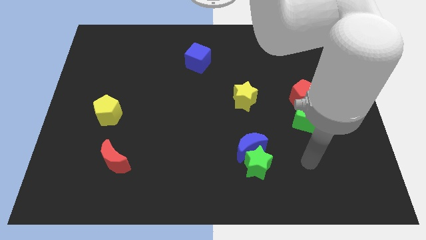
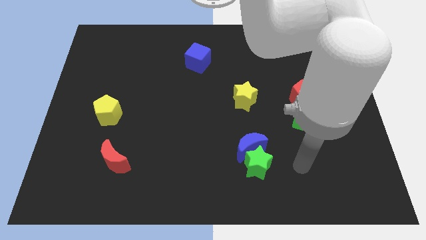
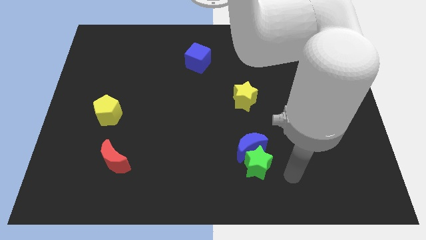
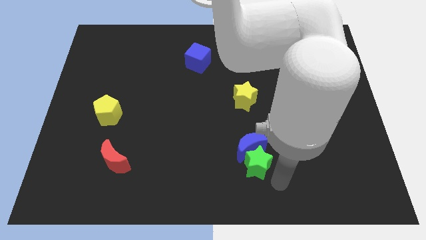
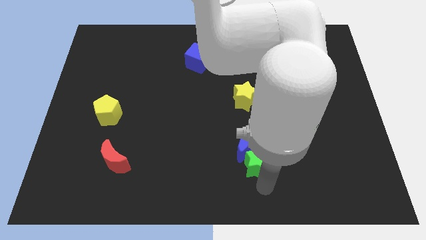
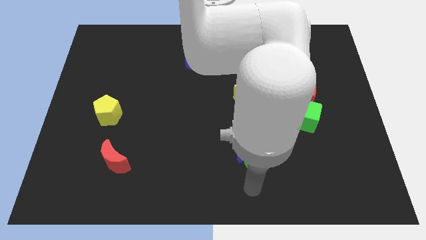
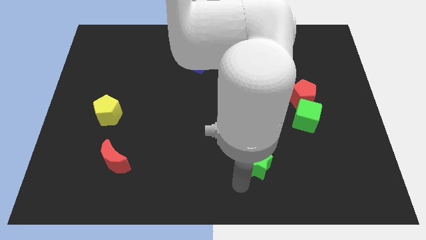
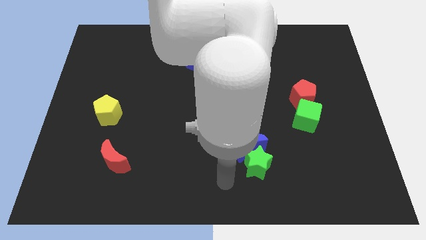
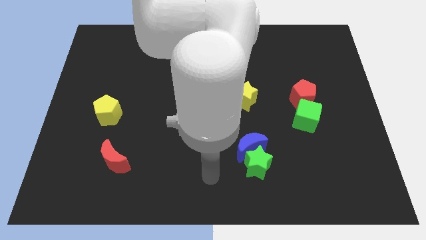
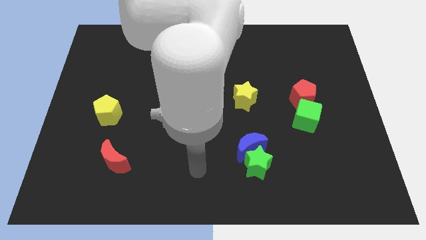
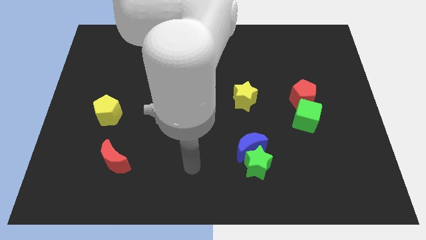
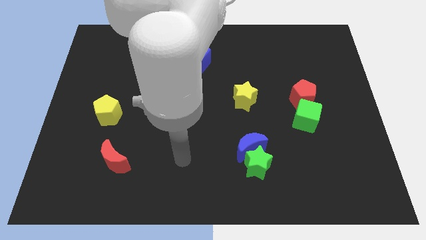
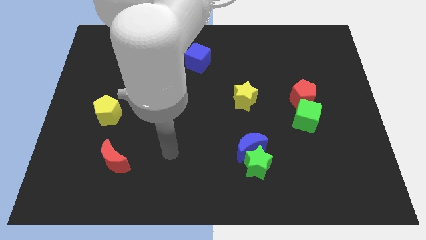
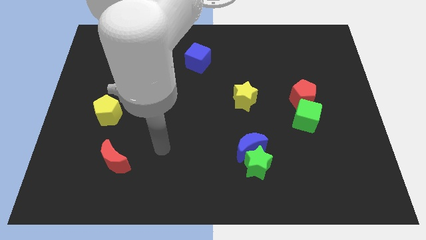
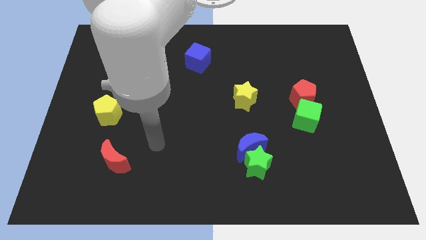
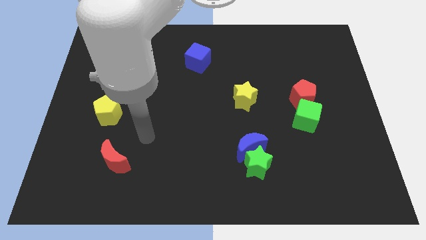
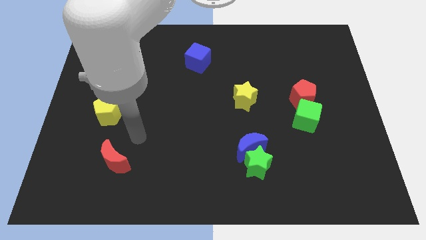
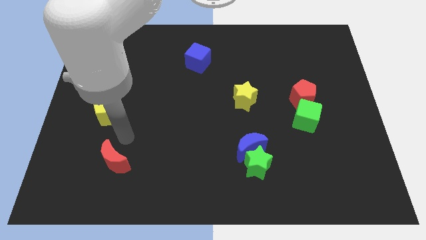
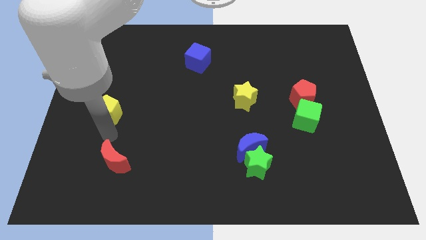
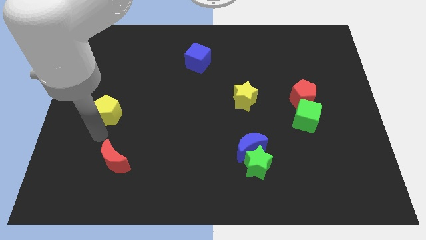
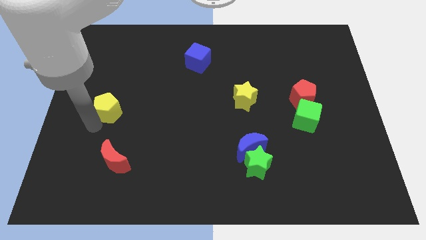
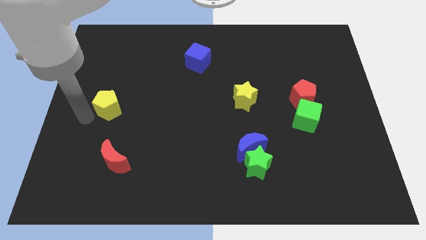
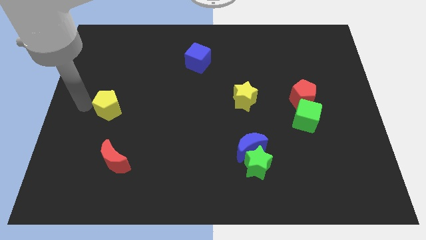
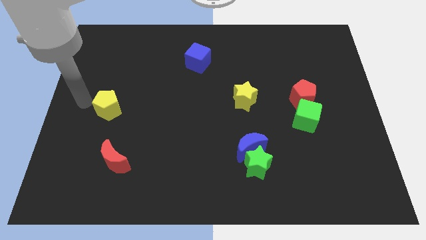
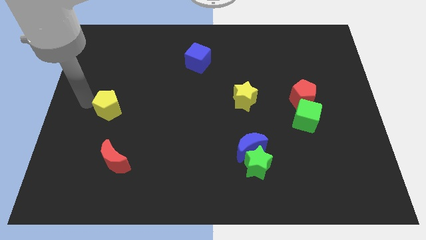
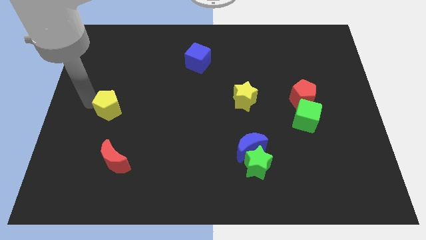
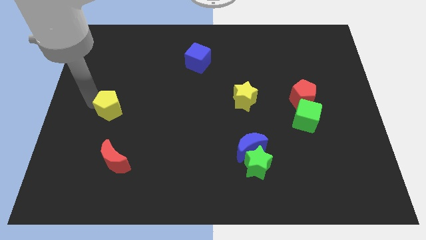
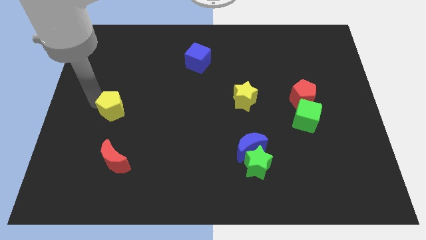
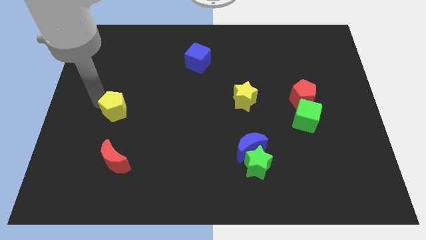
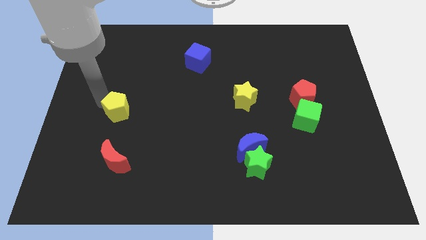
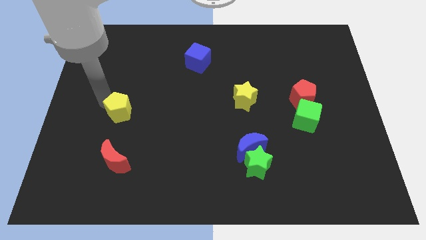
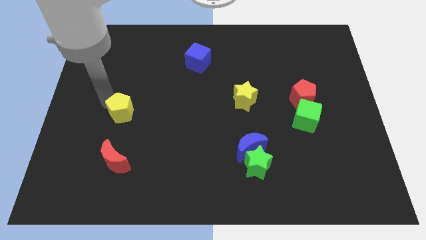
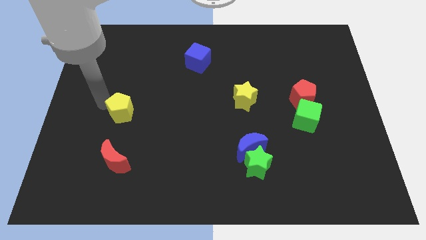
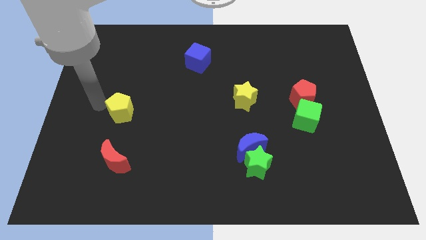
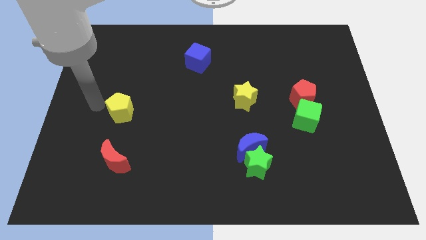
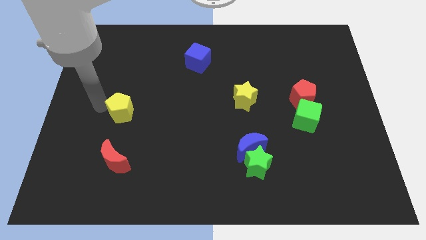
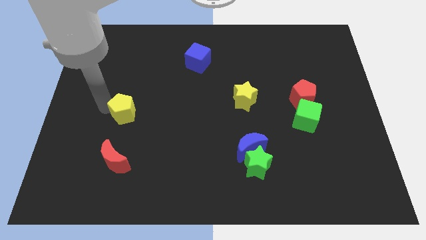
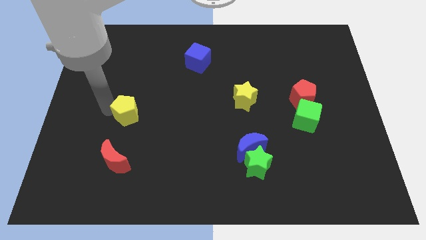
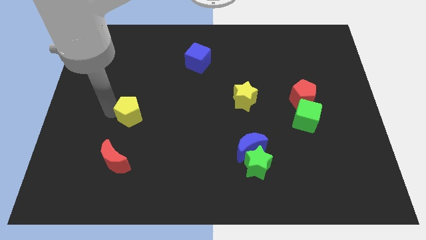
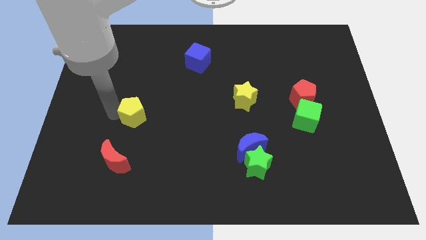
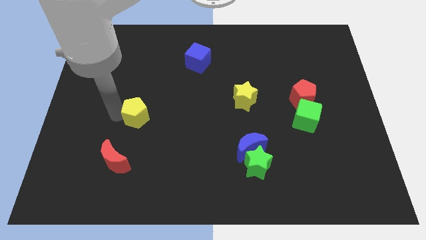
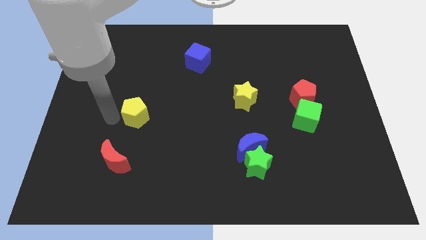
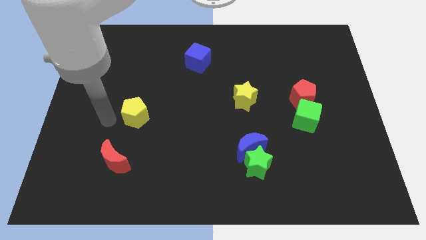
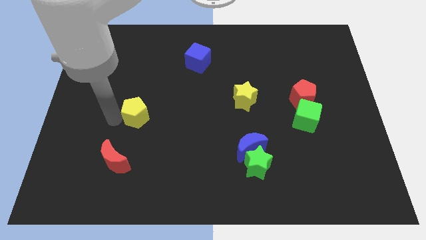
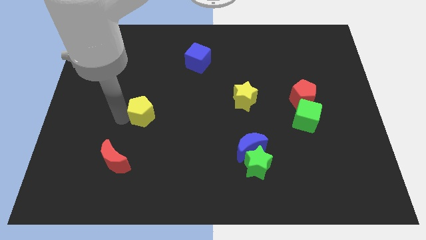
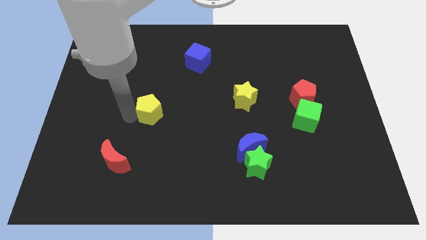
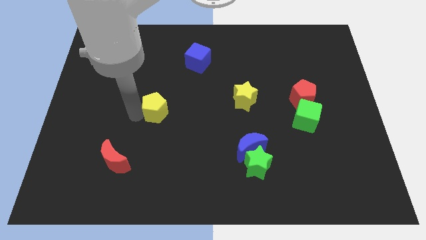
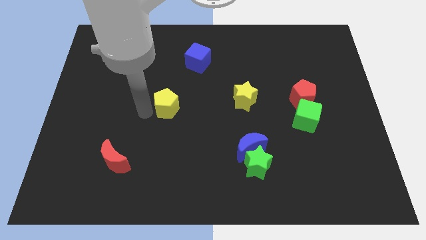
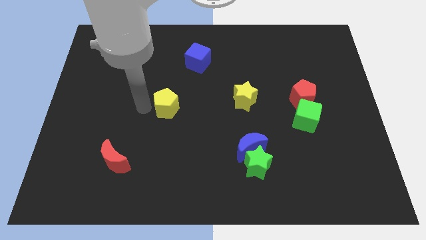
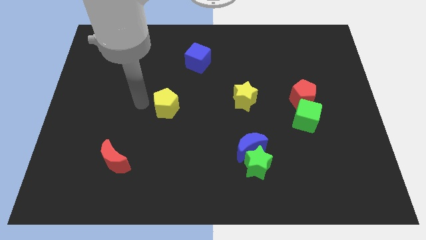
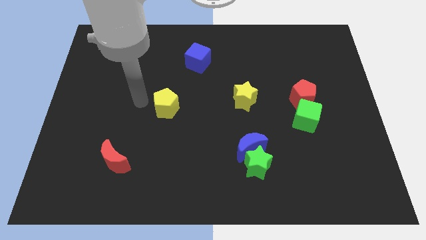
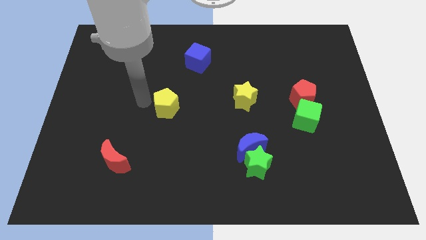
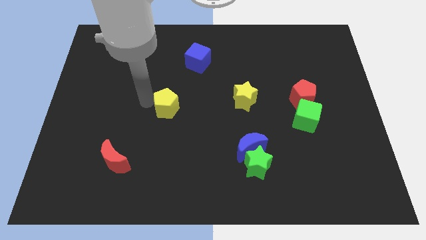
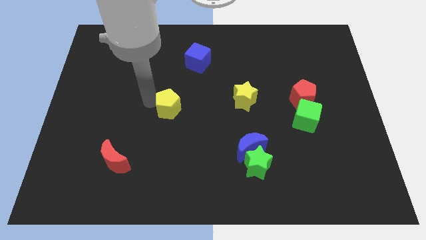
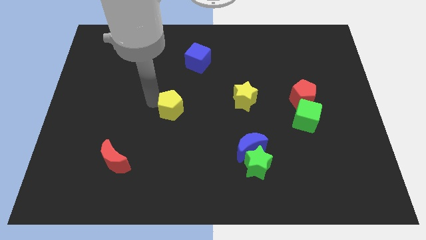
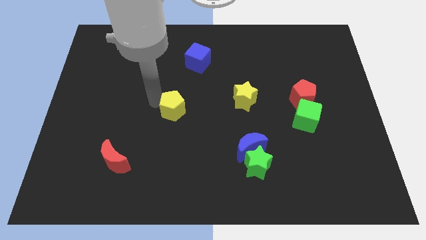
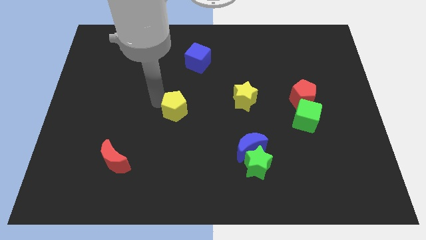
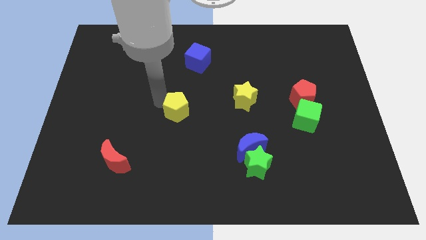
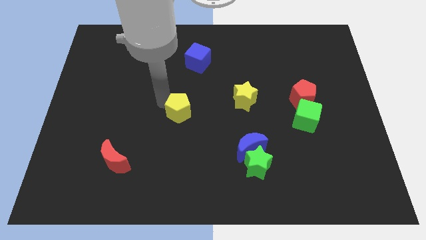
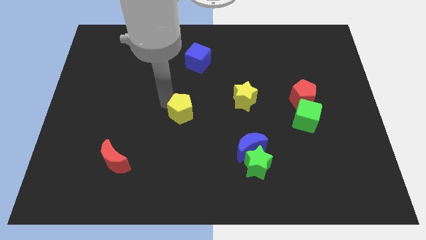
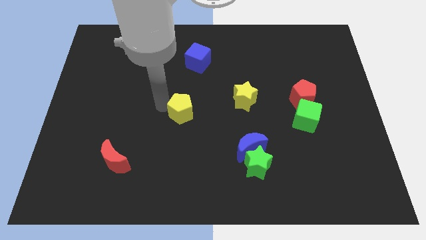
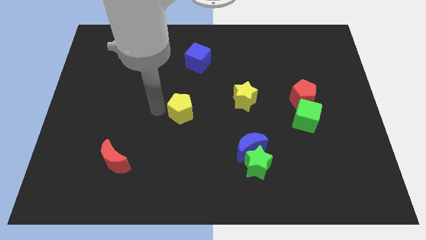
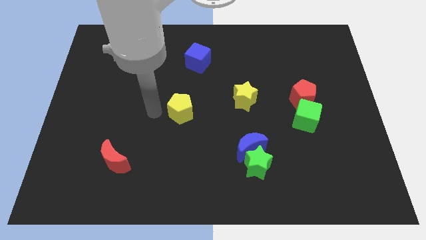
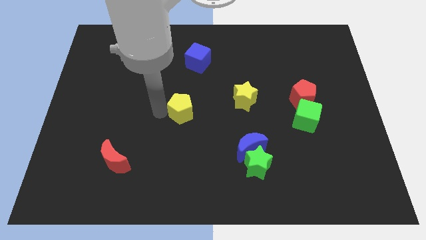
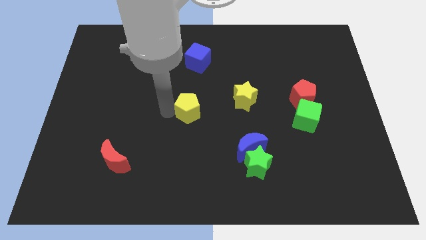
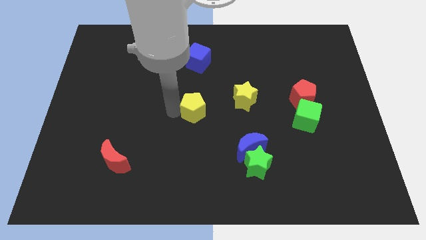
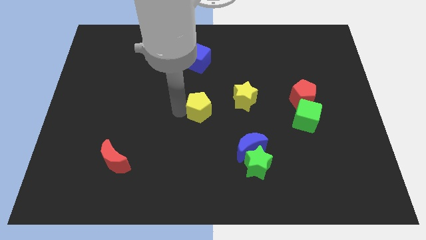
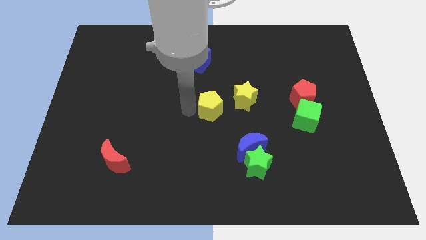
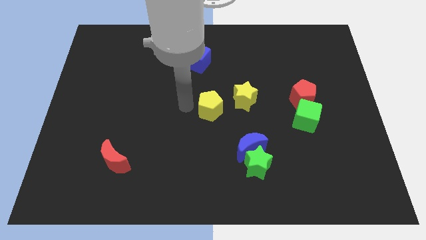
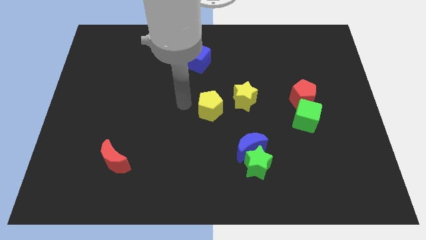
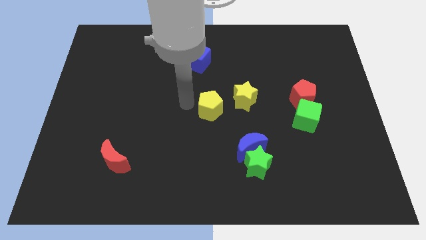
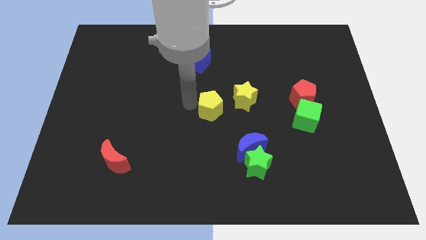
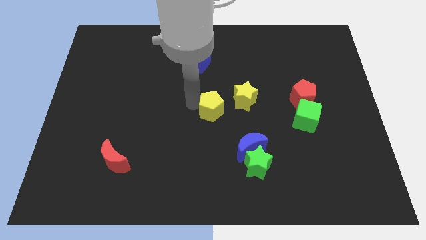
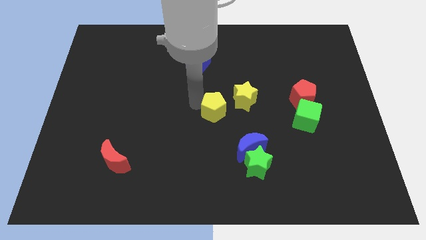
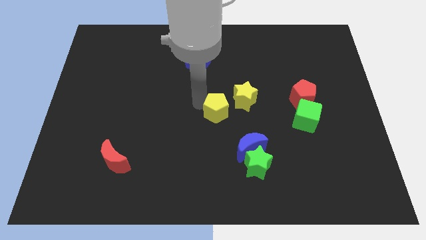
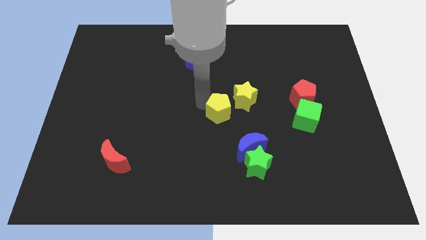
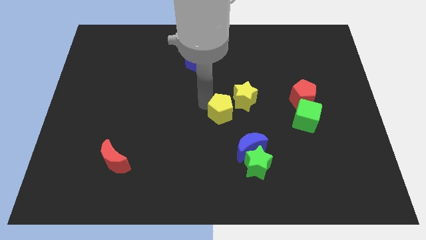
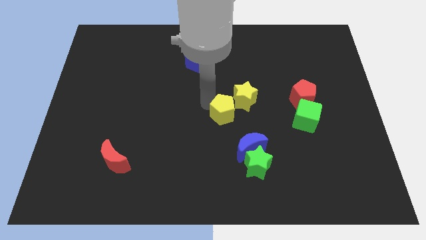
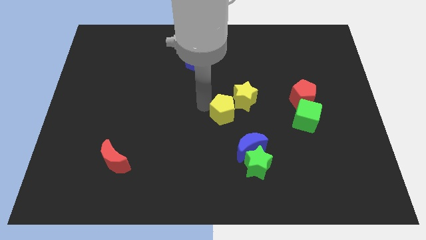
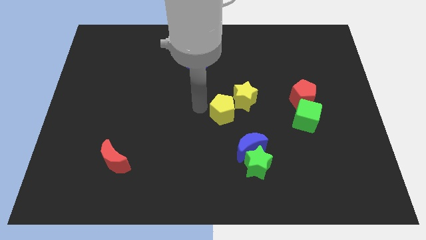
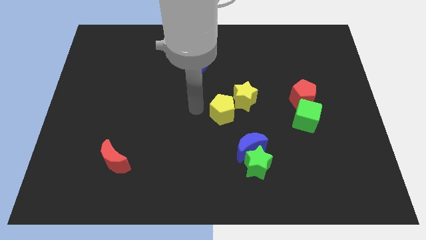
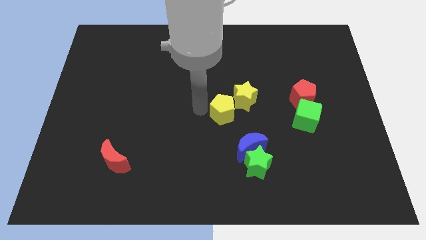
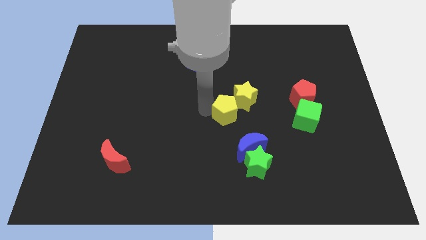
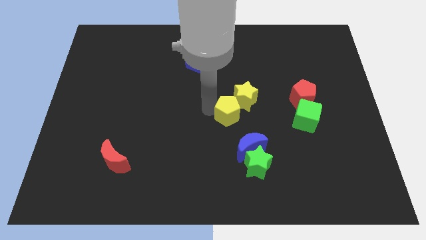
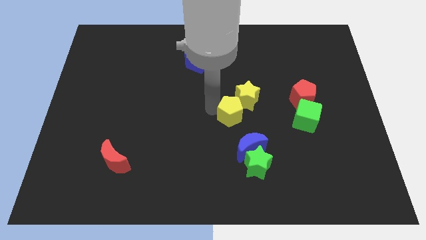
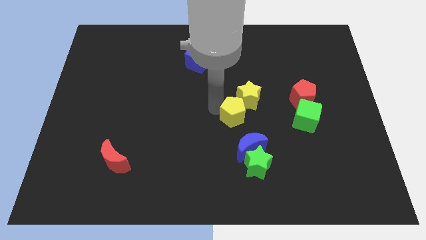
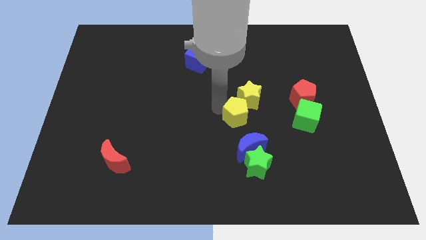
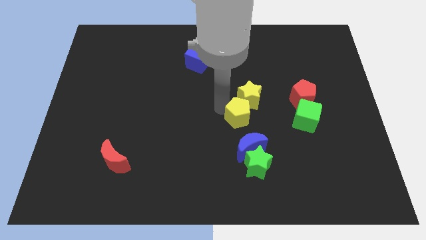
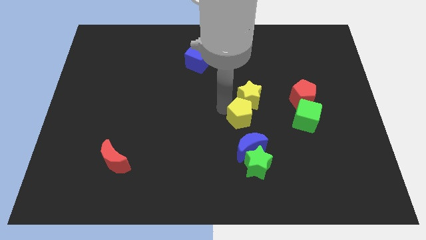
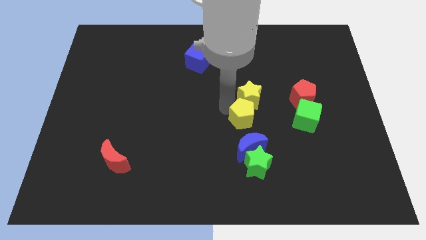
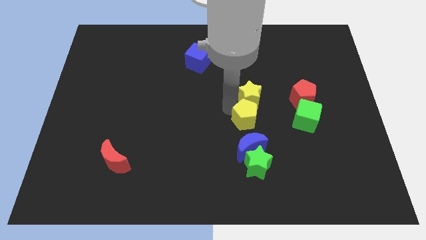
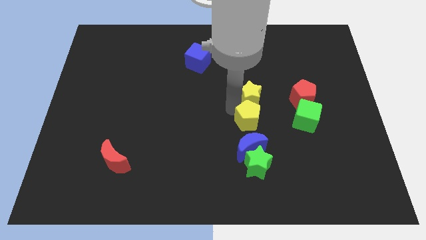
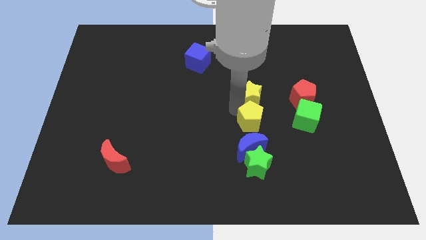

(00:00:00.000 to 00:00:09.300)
slide the yellow pentagon to the top right side of the blue moon
